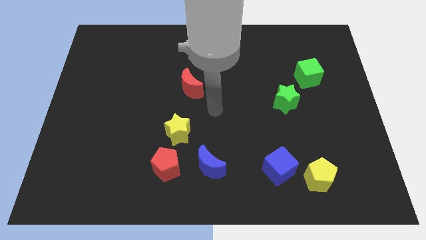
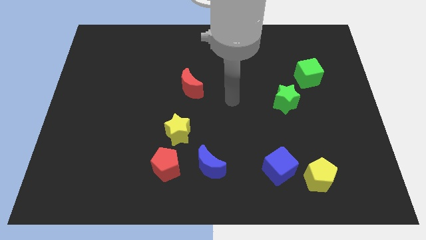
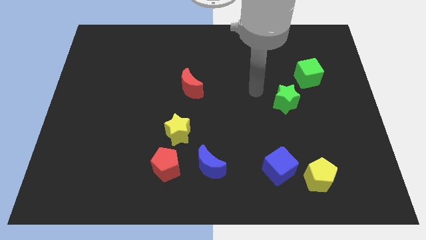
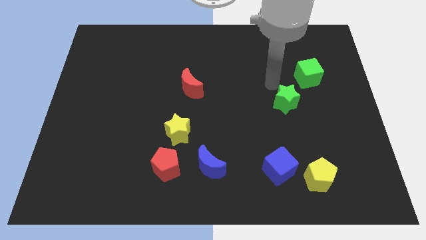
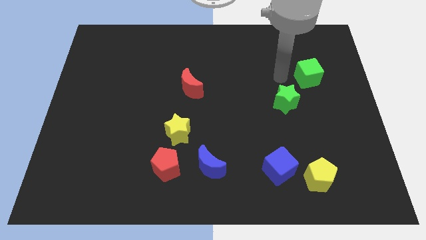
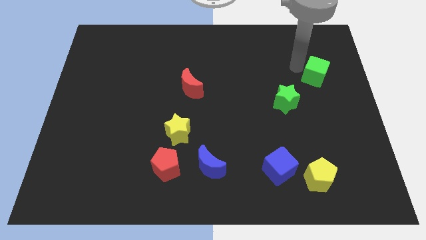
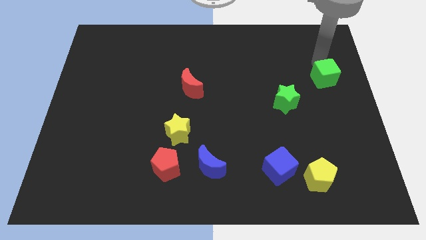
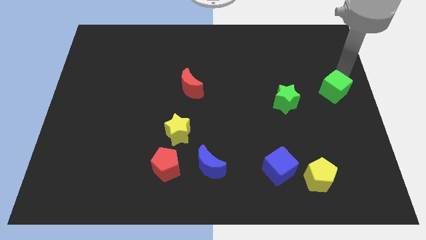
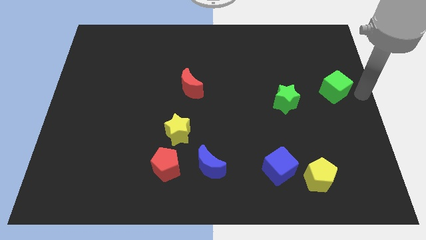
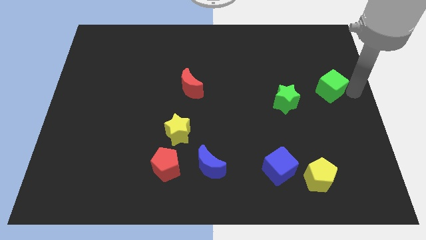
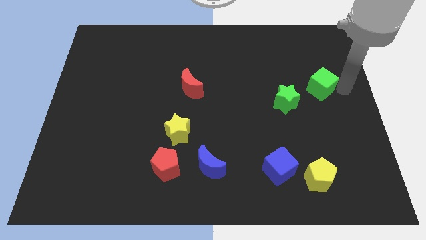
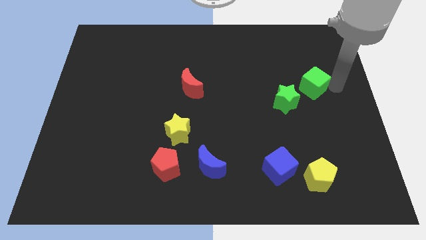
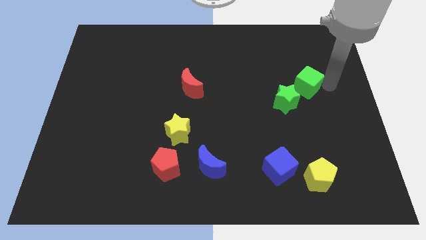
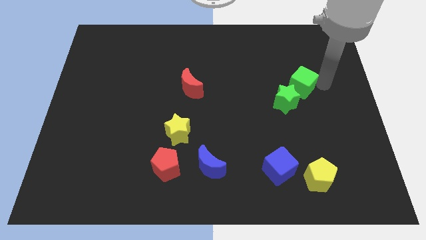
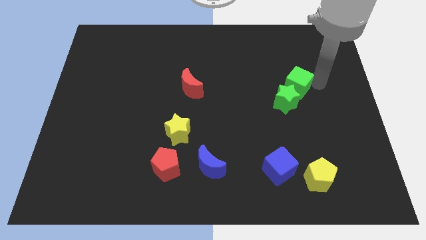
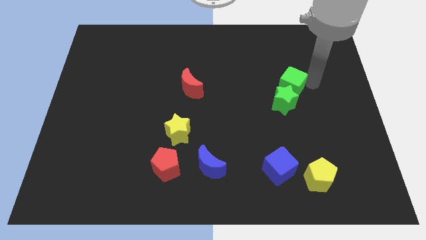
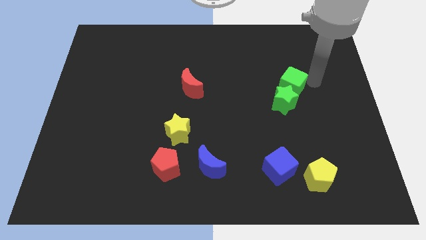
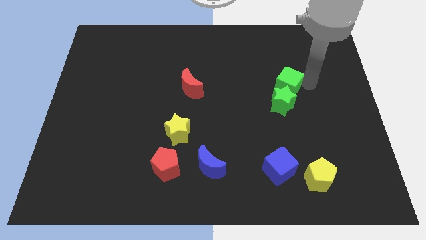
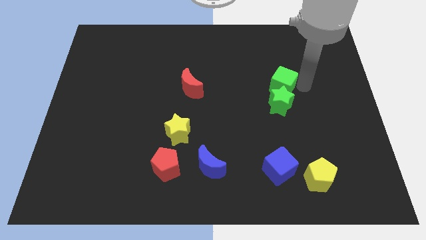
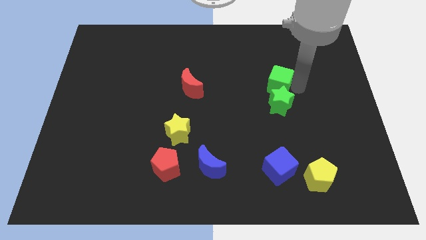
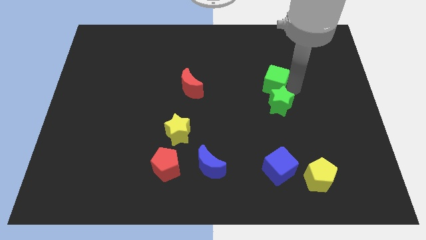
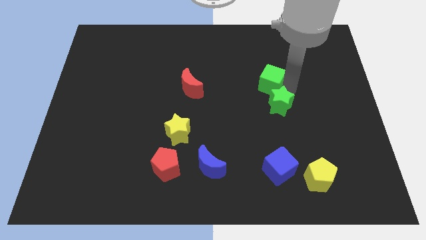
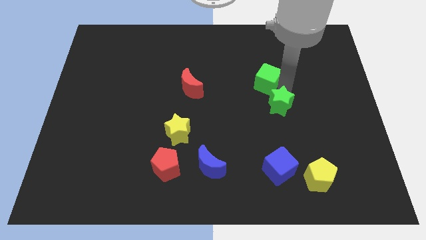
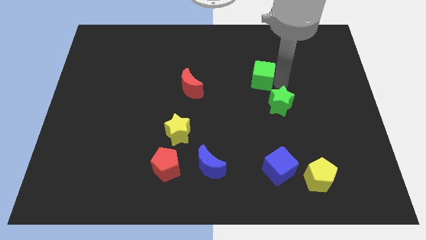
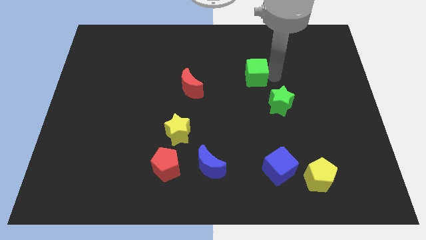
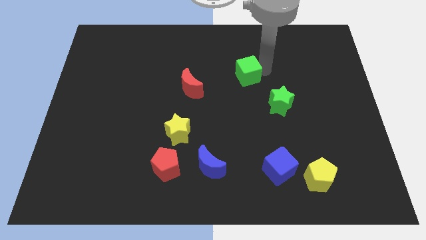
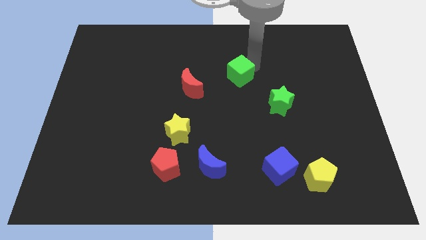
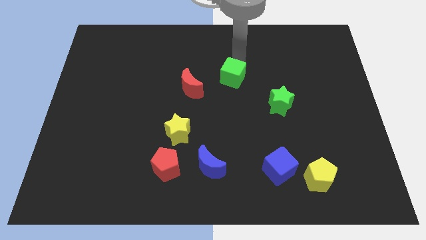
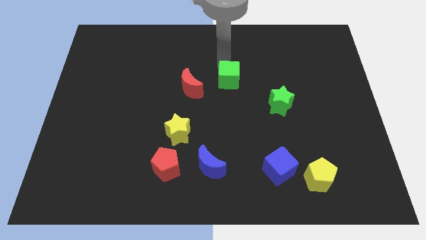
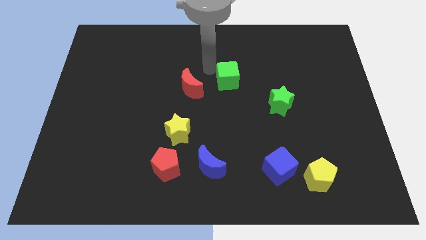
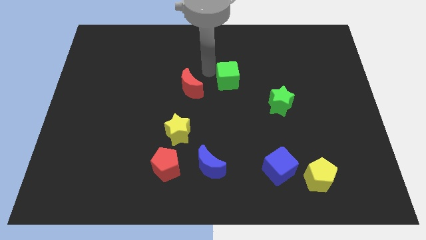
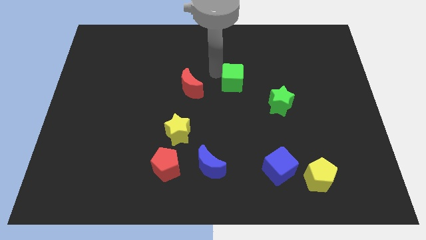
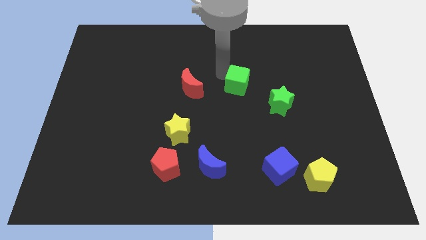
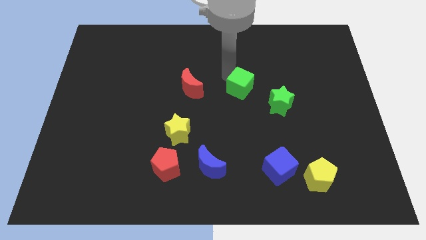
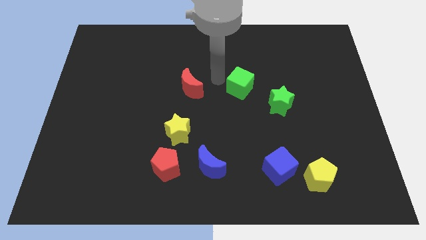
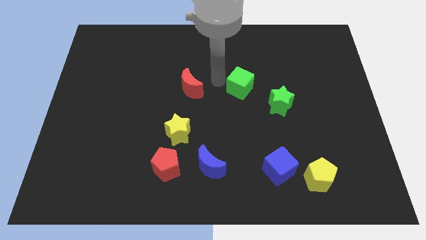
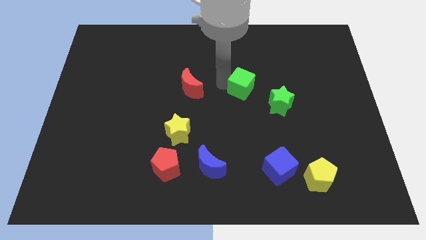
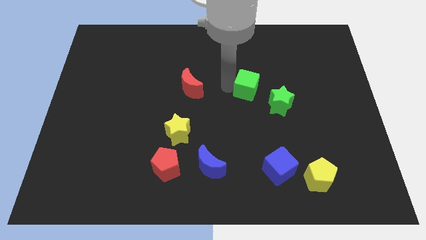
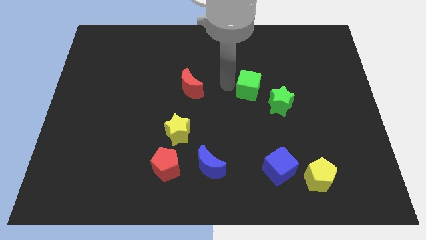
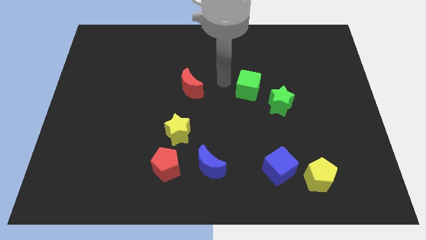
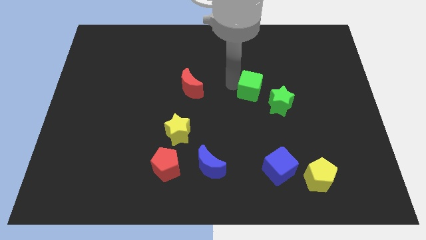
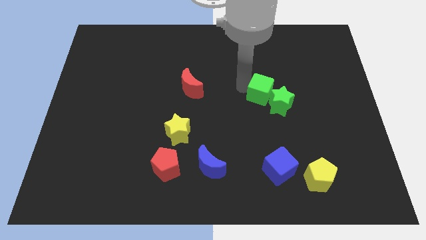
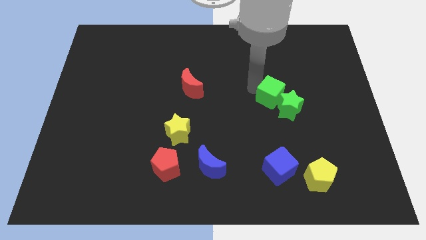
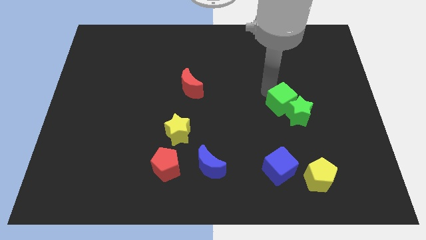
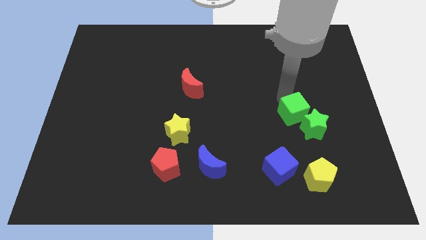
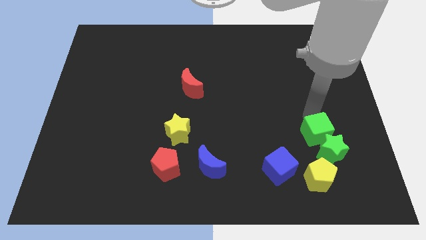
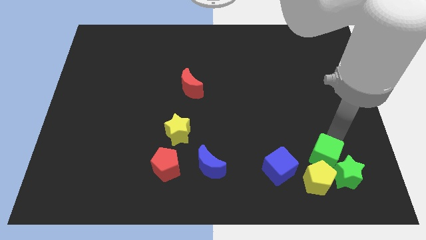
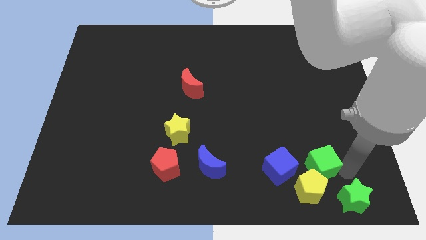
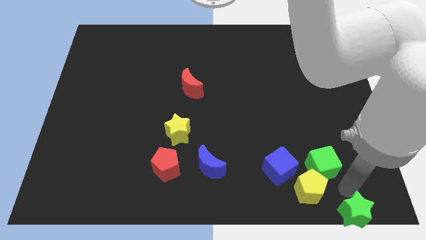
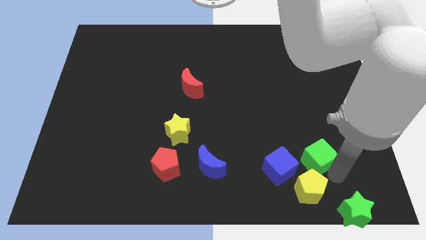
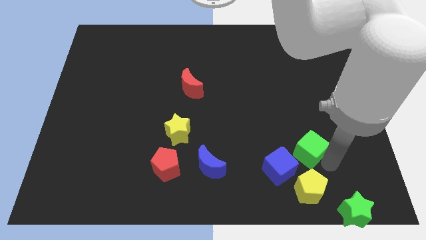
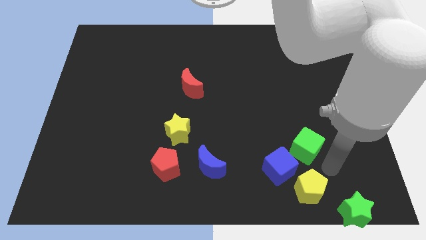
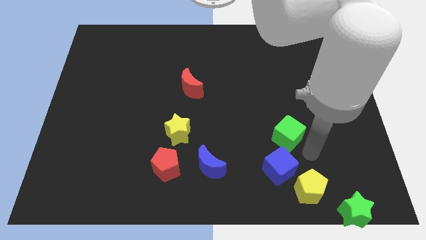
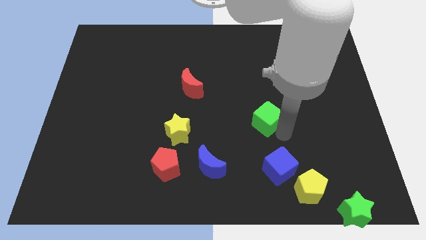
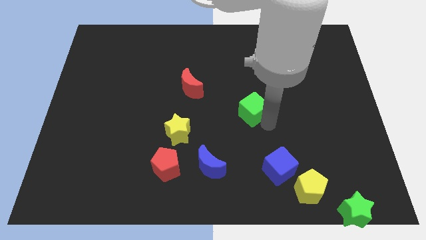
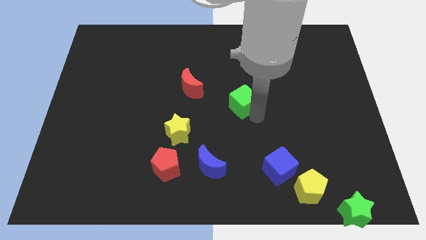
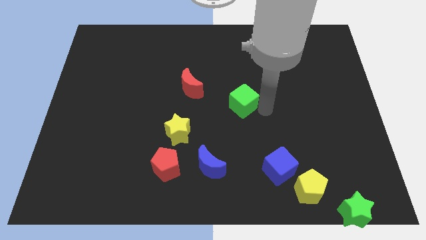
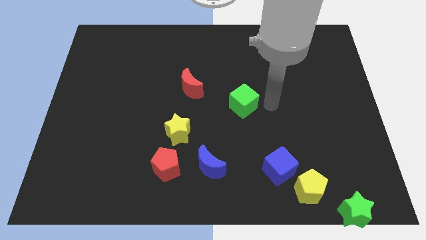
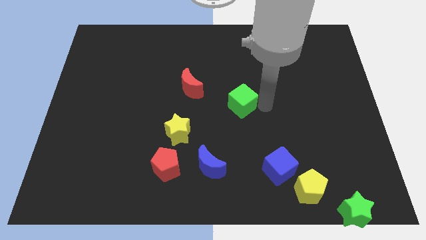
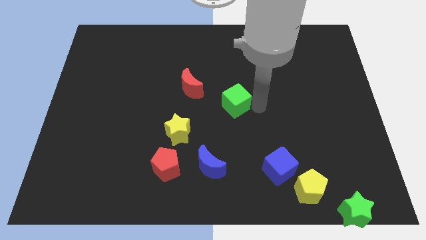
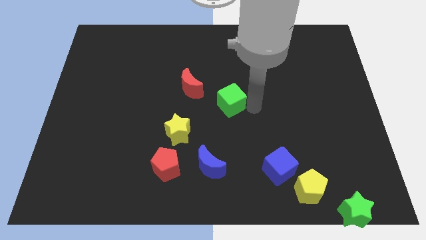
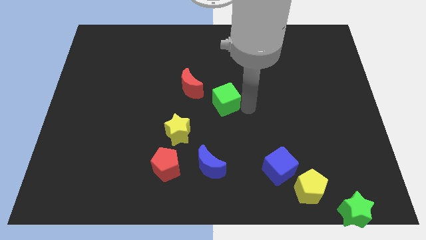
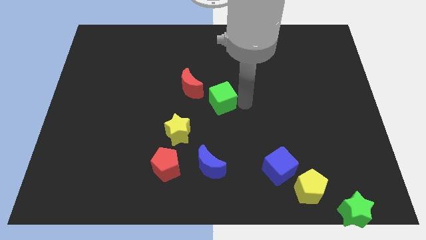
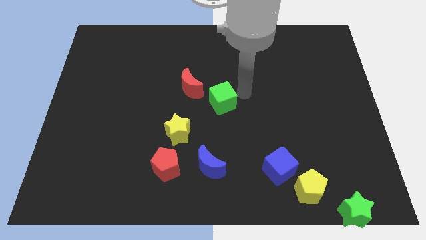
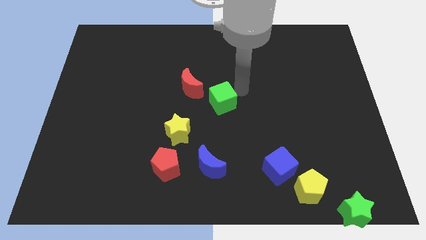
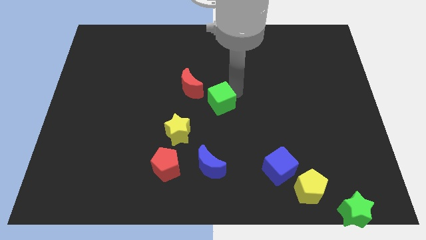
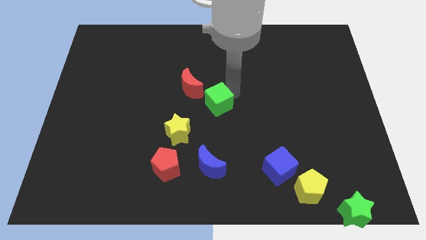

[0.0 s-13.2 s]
move the green cube to the top right of the yellow star

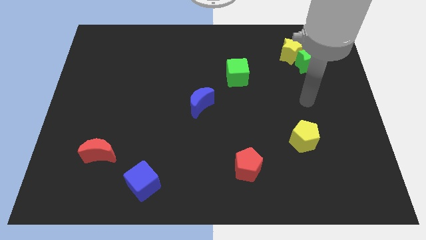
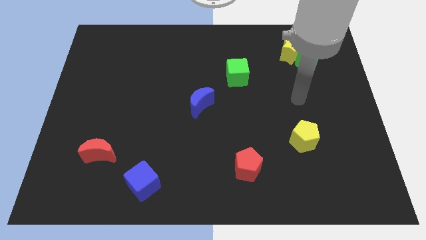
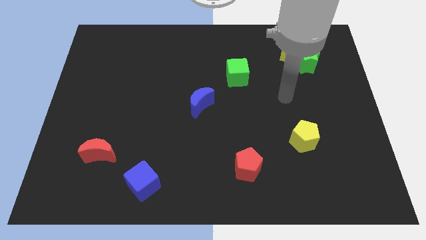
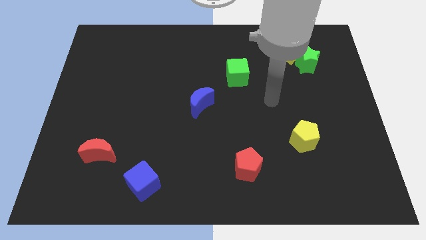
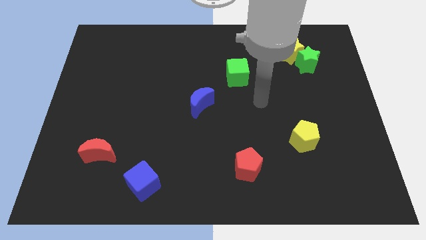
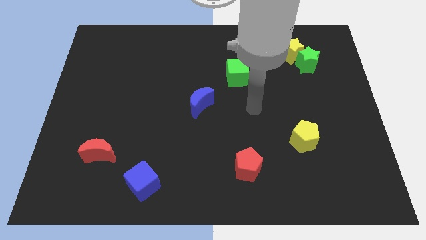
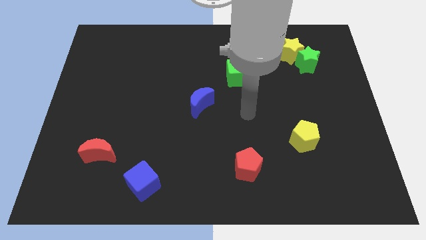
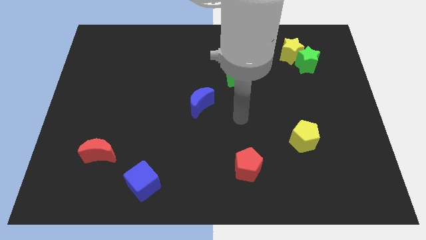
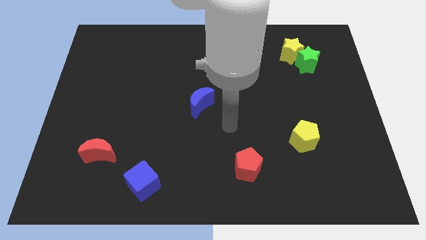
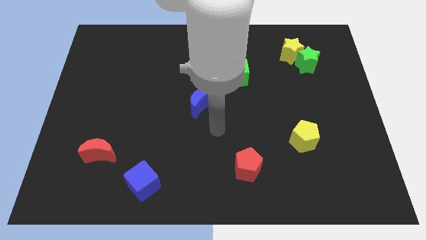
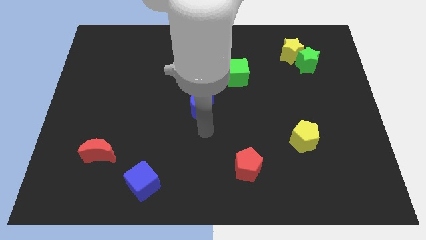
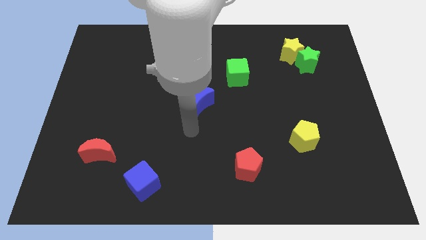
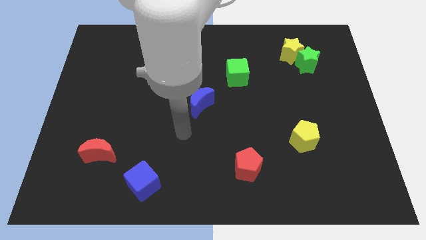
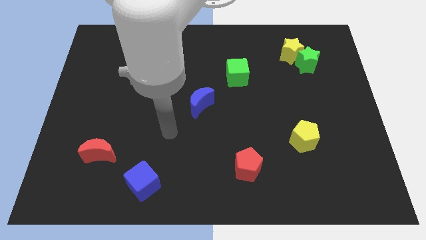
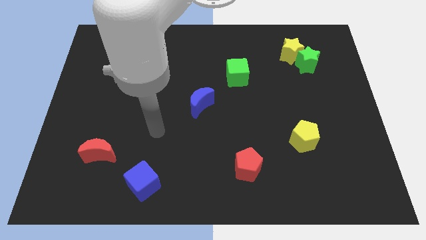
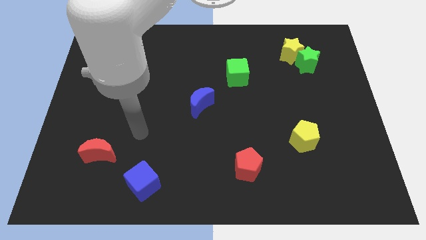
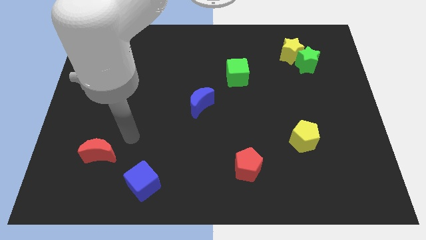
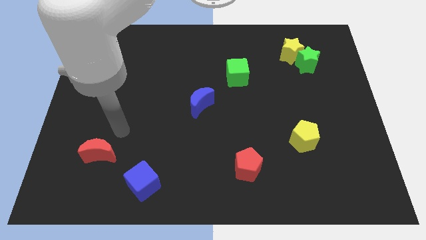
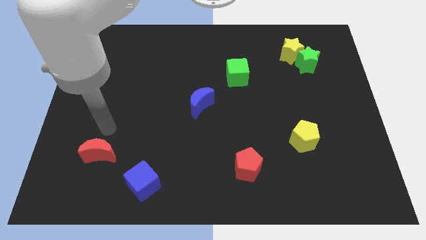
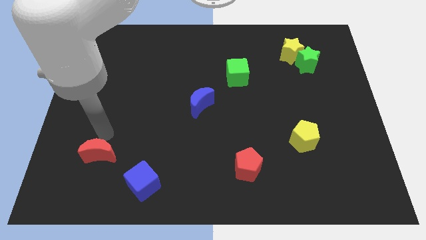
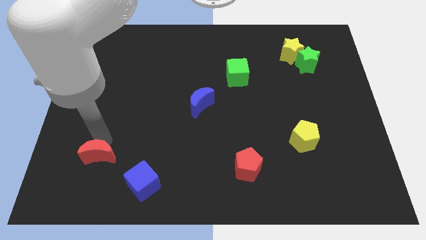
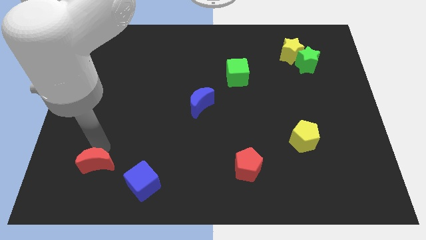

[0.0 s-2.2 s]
move the red moon left of the blue cube
